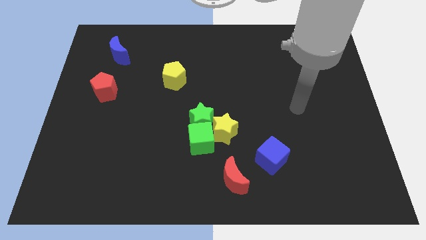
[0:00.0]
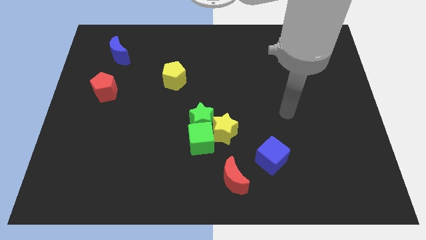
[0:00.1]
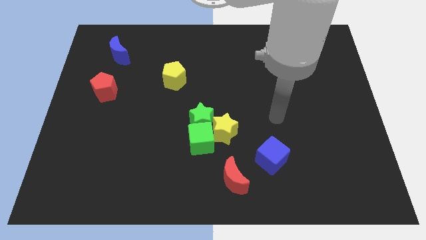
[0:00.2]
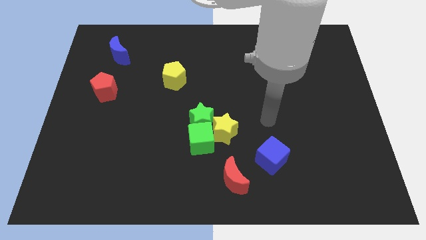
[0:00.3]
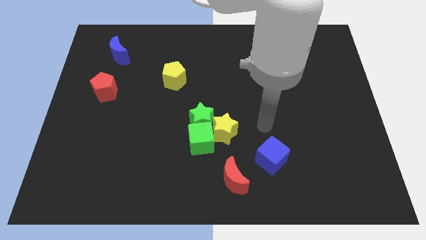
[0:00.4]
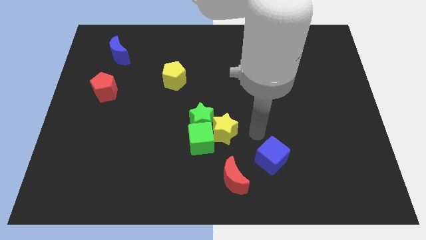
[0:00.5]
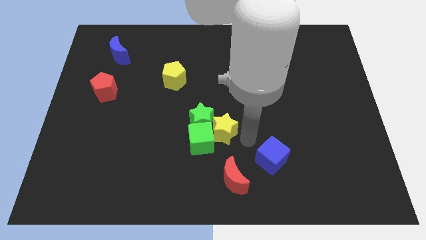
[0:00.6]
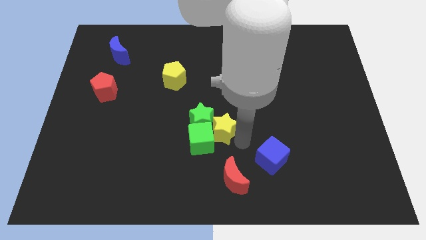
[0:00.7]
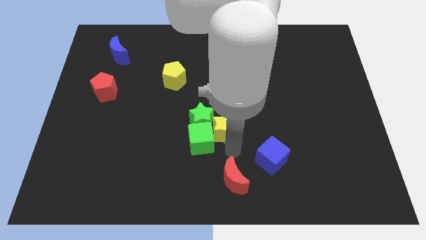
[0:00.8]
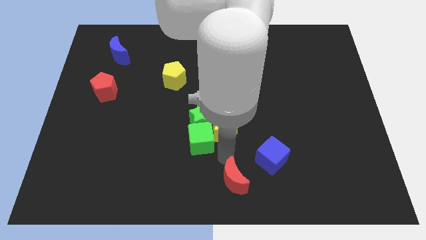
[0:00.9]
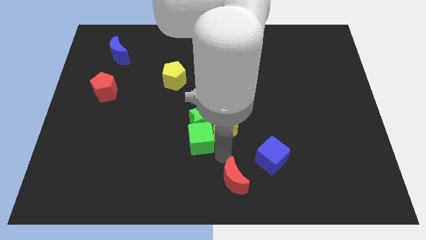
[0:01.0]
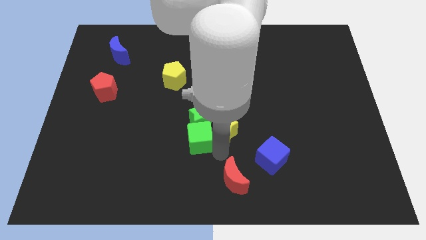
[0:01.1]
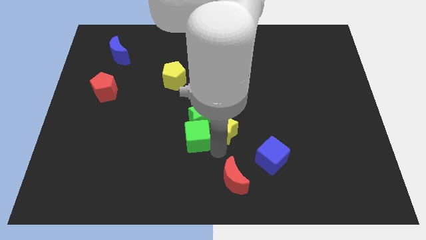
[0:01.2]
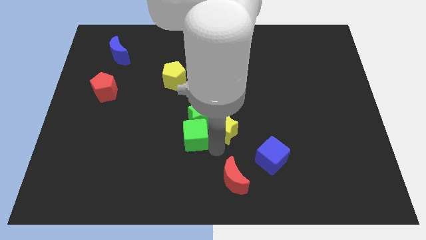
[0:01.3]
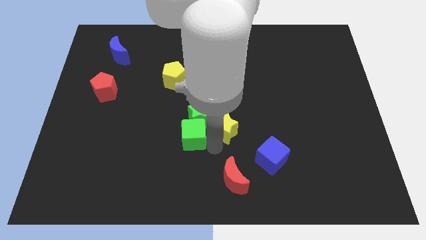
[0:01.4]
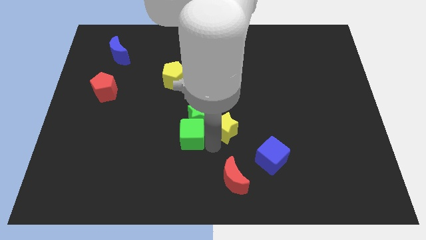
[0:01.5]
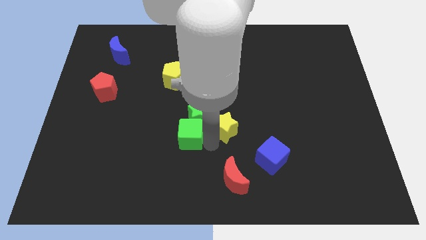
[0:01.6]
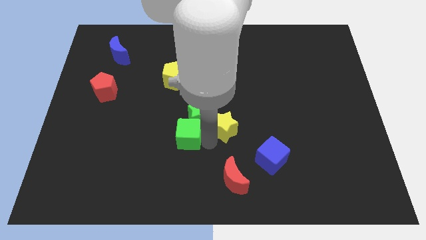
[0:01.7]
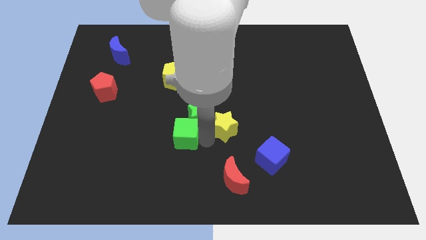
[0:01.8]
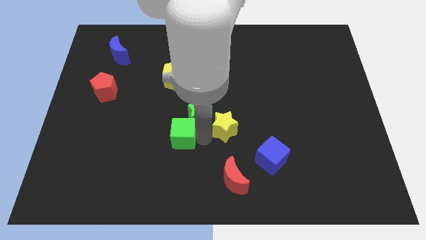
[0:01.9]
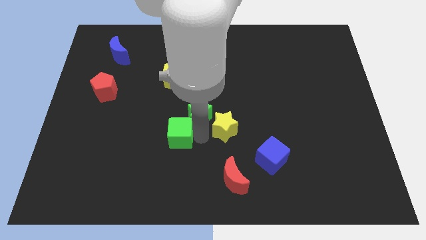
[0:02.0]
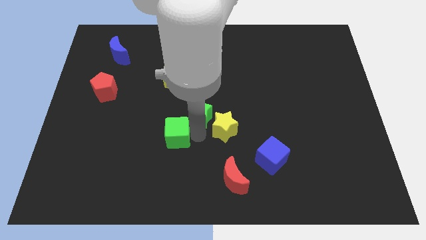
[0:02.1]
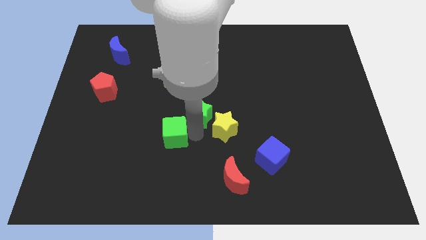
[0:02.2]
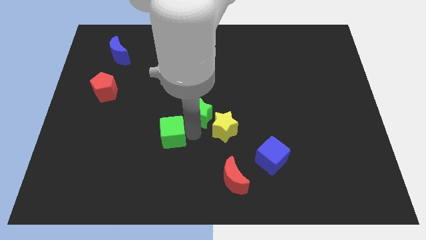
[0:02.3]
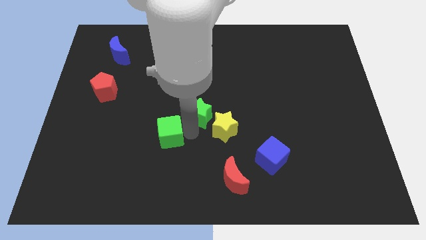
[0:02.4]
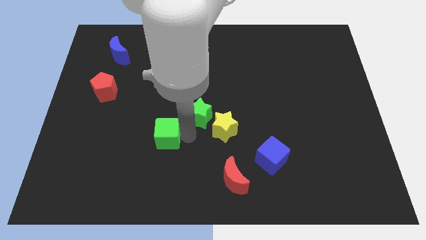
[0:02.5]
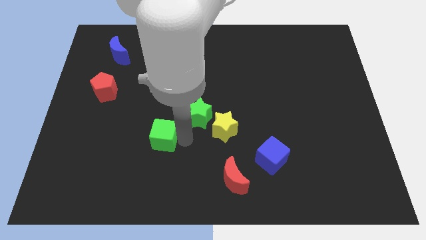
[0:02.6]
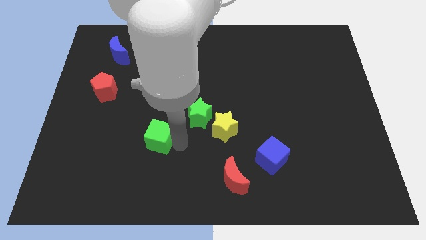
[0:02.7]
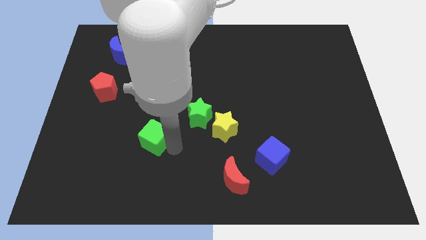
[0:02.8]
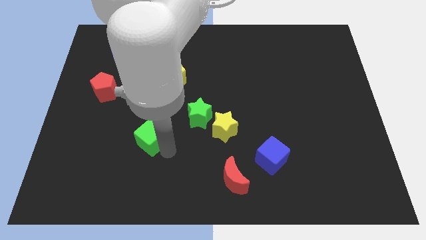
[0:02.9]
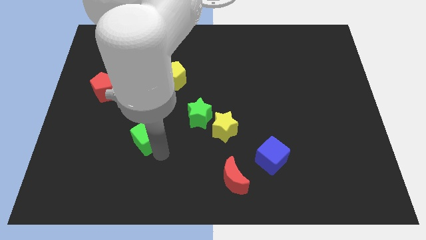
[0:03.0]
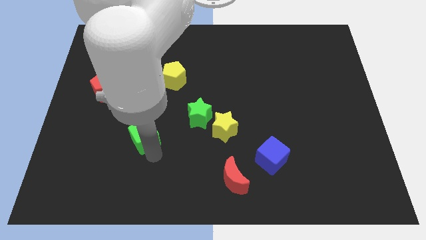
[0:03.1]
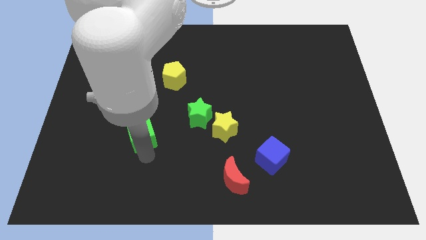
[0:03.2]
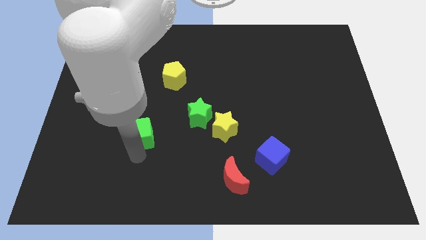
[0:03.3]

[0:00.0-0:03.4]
slightly move the green cube upwards and left diagonally

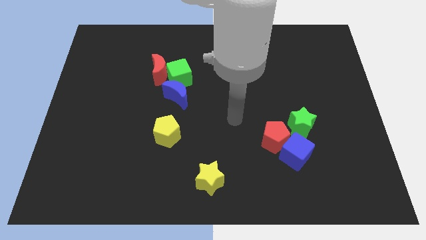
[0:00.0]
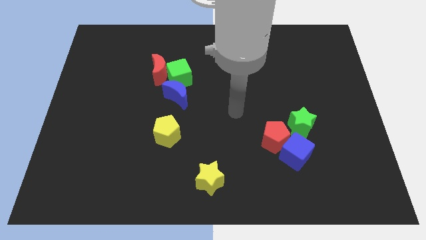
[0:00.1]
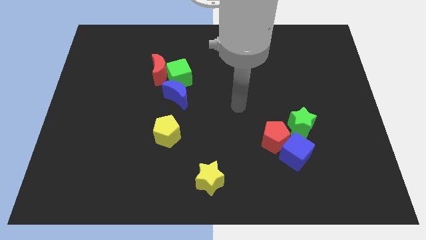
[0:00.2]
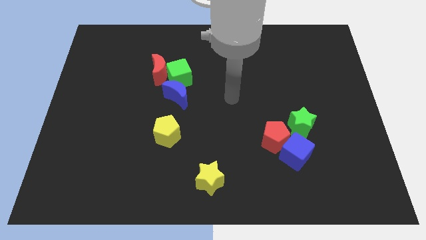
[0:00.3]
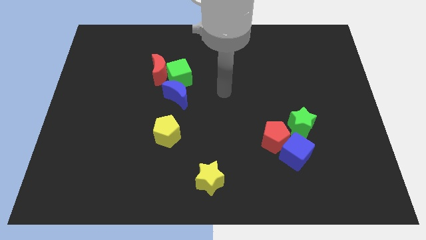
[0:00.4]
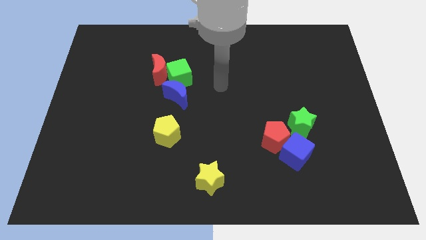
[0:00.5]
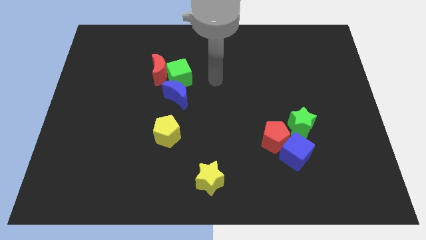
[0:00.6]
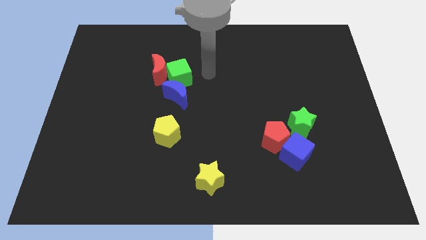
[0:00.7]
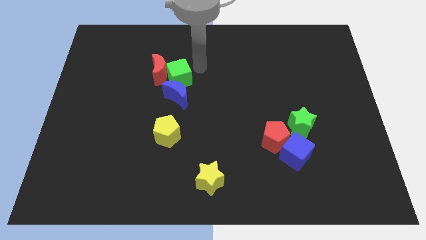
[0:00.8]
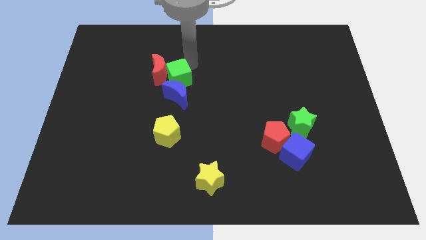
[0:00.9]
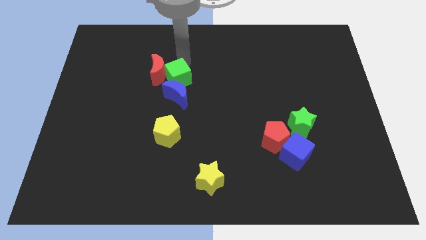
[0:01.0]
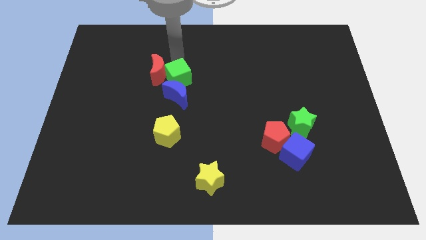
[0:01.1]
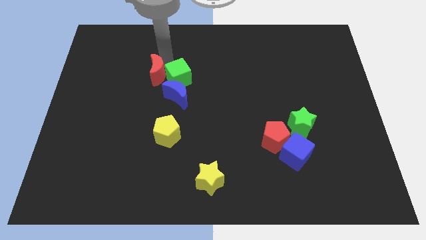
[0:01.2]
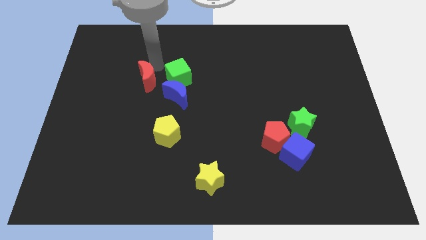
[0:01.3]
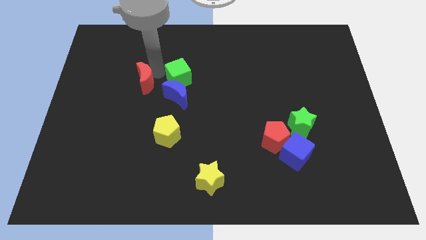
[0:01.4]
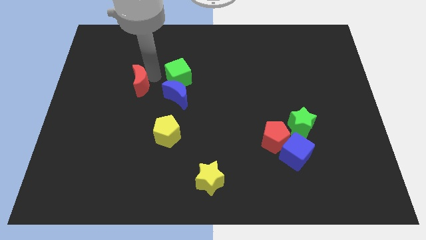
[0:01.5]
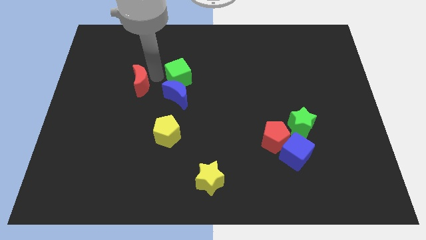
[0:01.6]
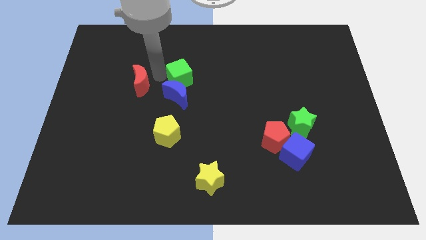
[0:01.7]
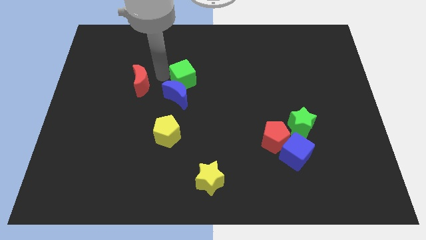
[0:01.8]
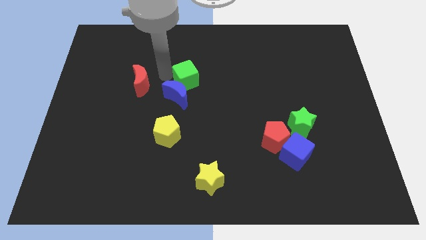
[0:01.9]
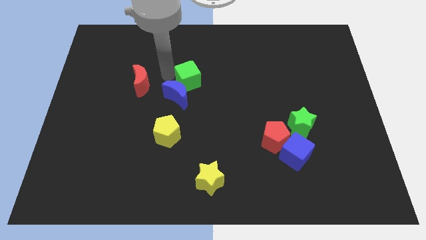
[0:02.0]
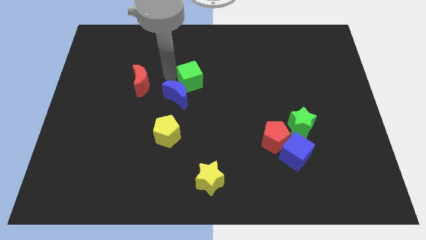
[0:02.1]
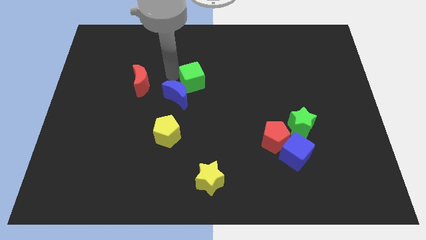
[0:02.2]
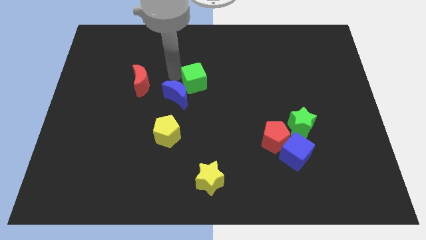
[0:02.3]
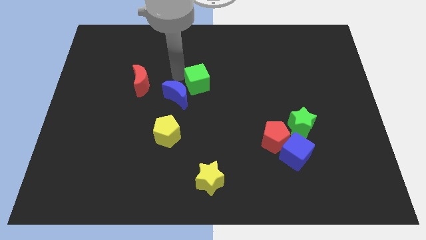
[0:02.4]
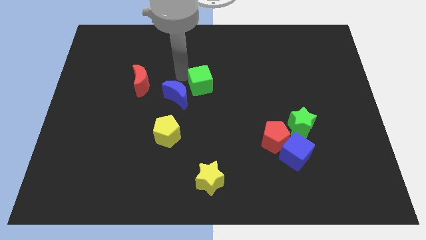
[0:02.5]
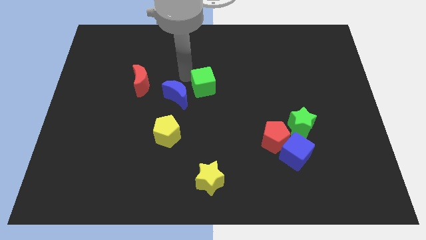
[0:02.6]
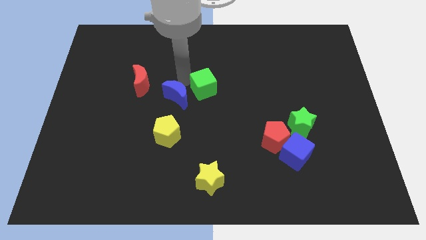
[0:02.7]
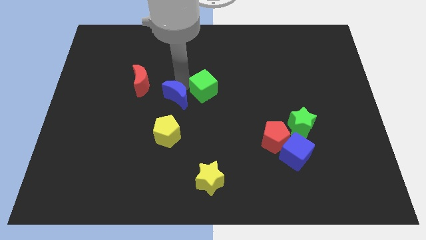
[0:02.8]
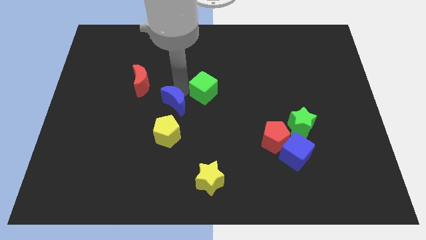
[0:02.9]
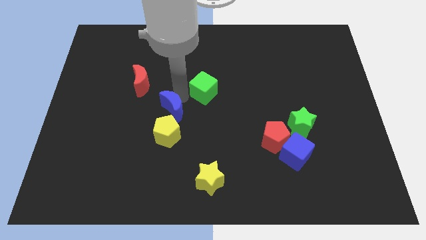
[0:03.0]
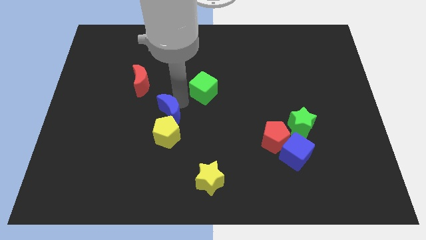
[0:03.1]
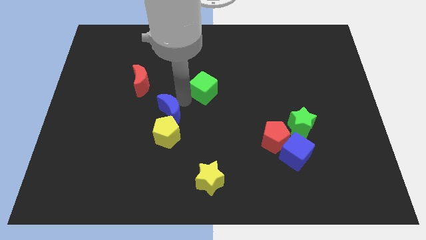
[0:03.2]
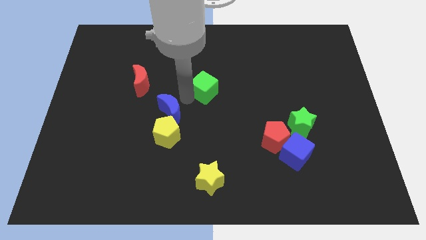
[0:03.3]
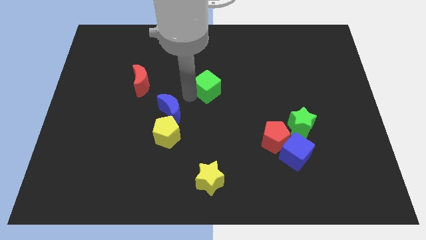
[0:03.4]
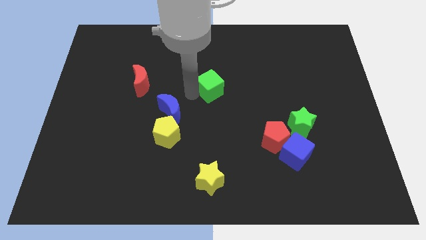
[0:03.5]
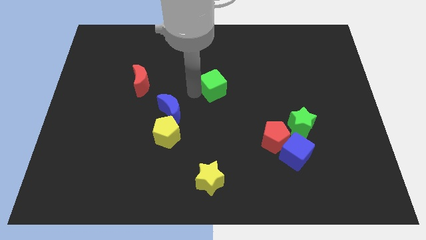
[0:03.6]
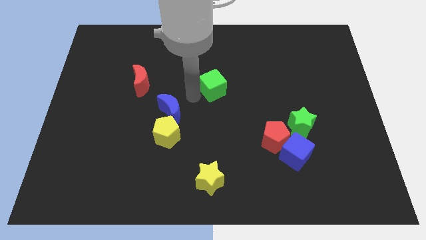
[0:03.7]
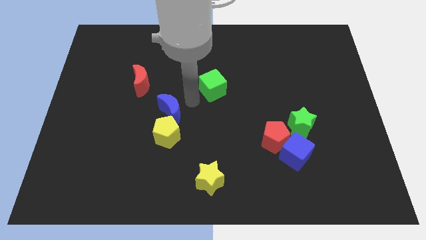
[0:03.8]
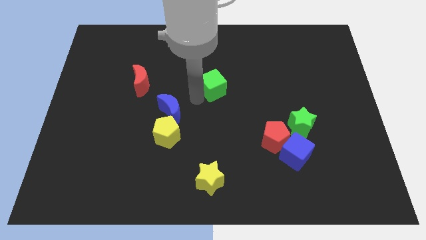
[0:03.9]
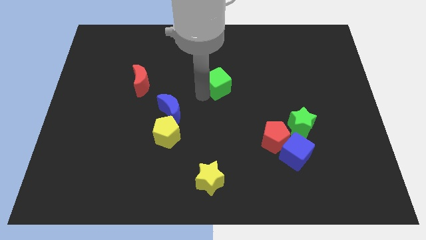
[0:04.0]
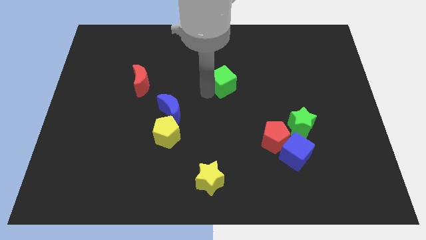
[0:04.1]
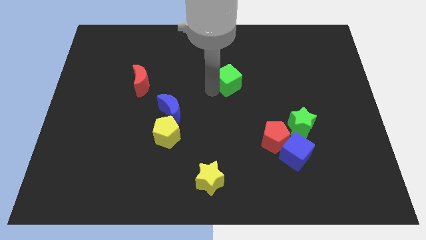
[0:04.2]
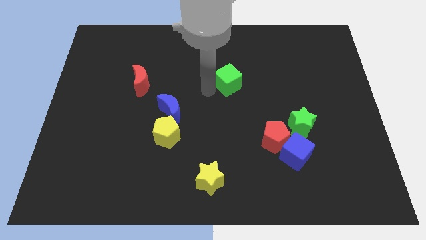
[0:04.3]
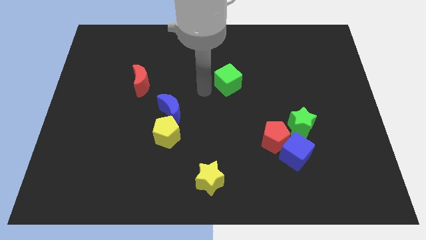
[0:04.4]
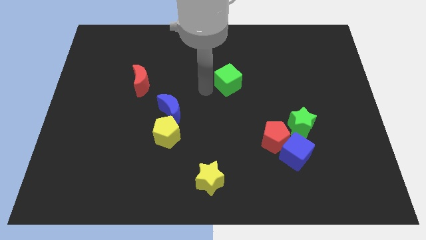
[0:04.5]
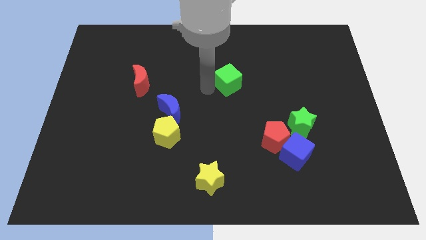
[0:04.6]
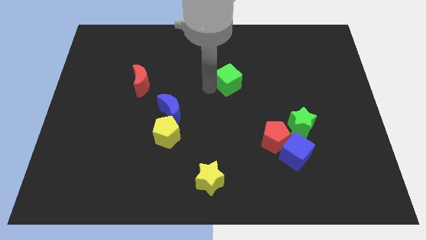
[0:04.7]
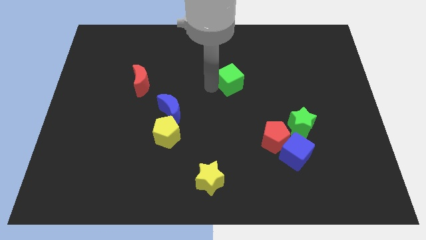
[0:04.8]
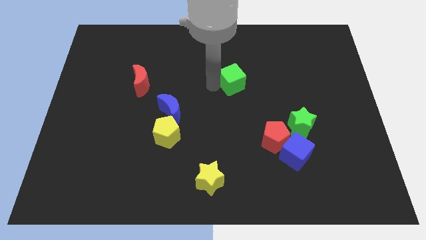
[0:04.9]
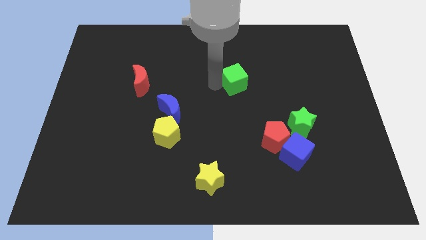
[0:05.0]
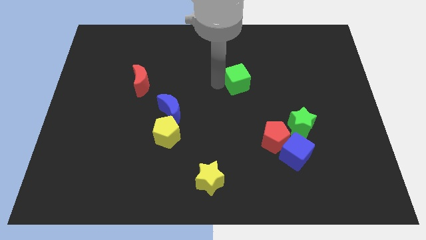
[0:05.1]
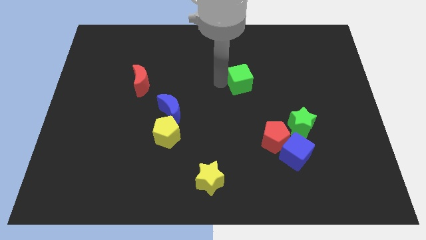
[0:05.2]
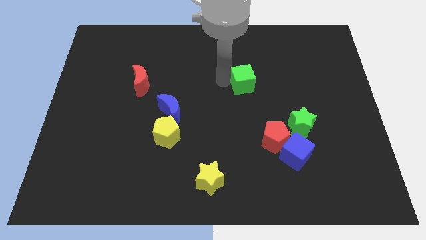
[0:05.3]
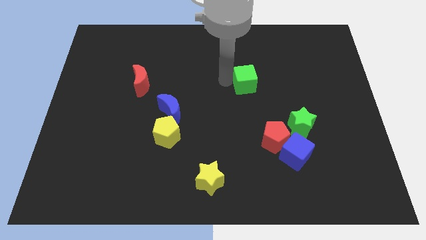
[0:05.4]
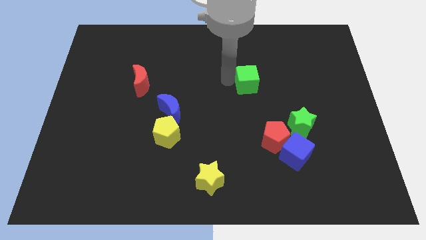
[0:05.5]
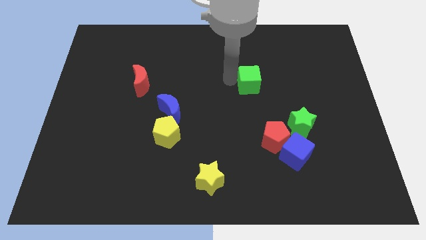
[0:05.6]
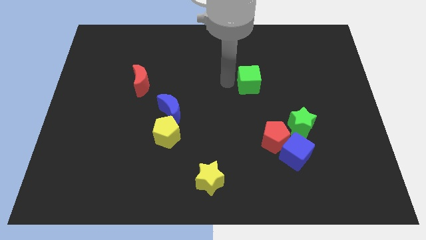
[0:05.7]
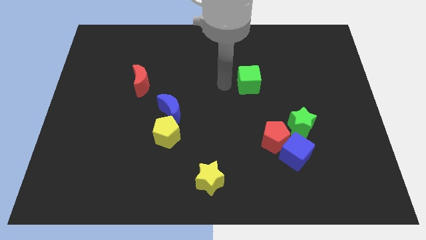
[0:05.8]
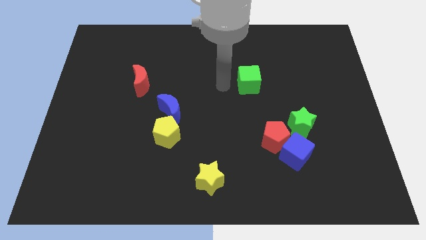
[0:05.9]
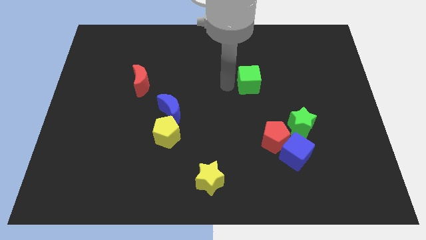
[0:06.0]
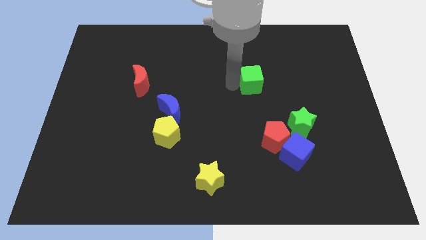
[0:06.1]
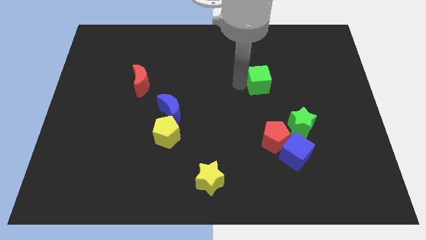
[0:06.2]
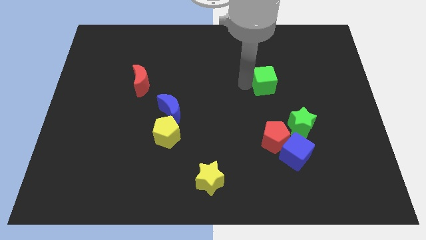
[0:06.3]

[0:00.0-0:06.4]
slide the green cube to the right
